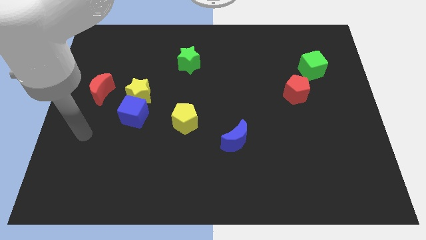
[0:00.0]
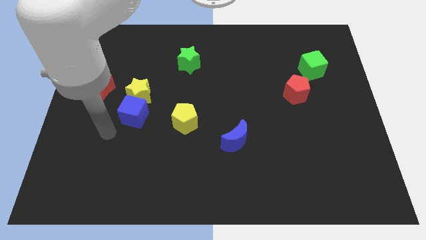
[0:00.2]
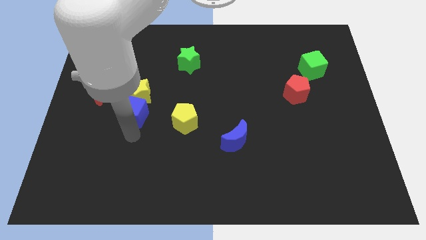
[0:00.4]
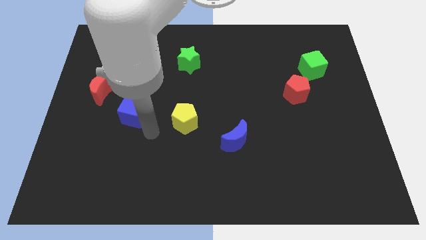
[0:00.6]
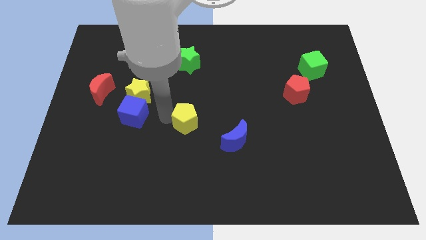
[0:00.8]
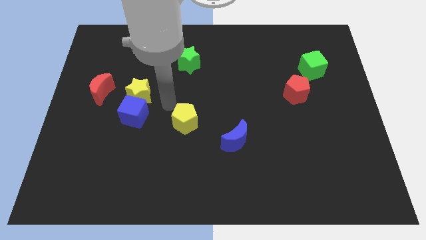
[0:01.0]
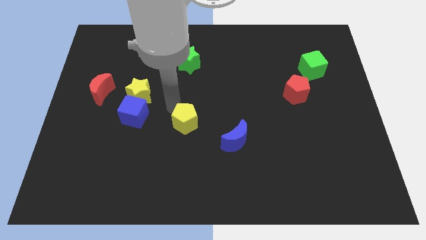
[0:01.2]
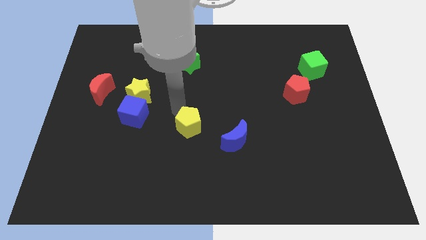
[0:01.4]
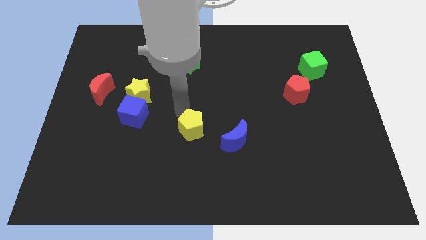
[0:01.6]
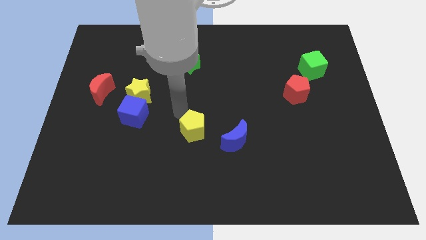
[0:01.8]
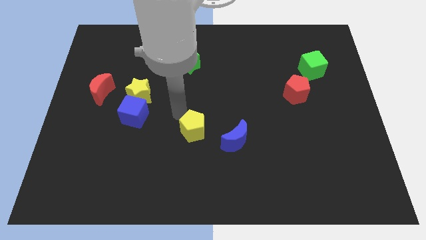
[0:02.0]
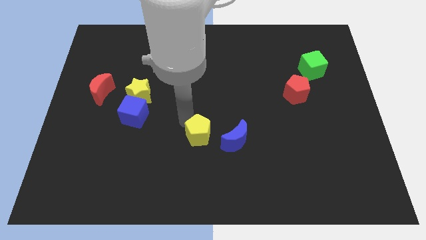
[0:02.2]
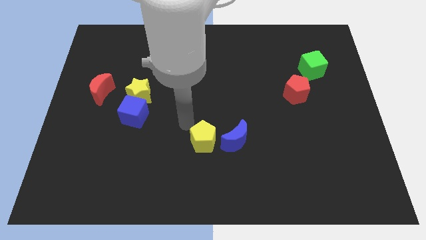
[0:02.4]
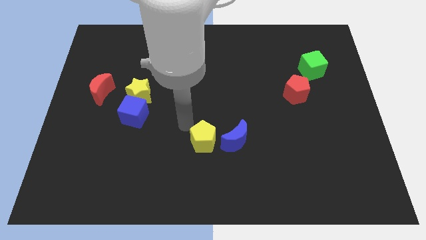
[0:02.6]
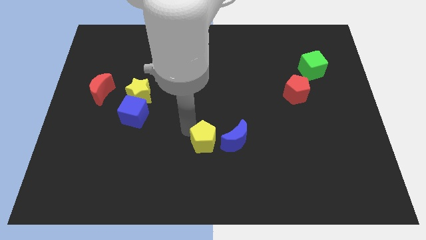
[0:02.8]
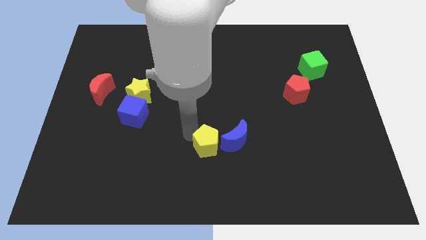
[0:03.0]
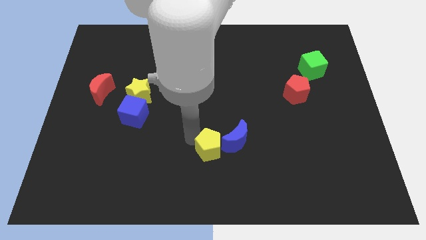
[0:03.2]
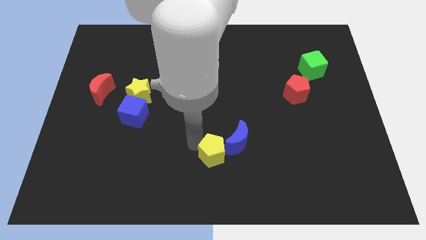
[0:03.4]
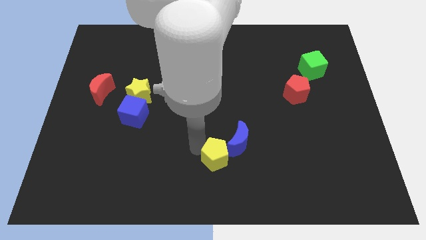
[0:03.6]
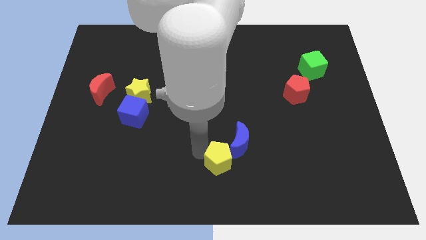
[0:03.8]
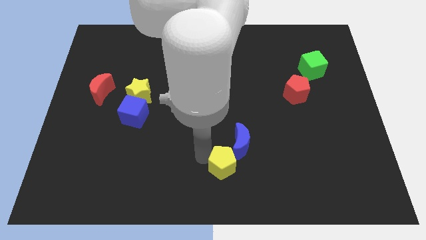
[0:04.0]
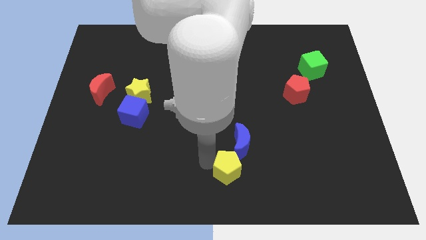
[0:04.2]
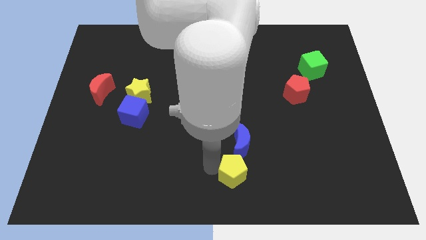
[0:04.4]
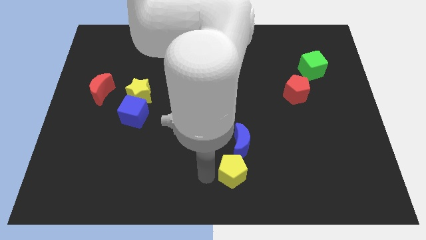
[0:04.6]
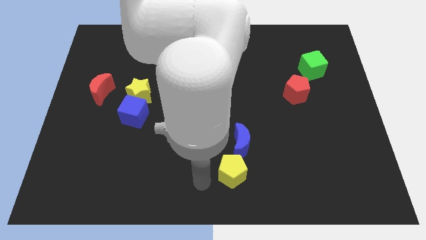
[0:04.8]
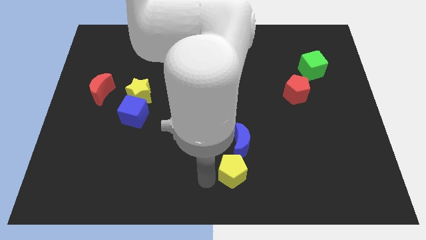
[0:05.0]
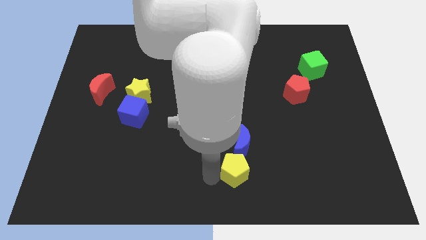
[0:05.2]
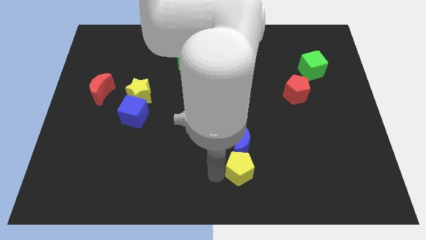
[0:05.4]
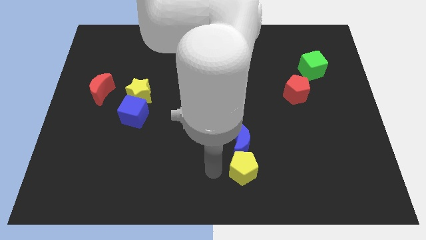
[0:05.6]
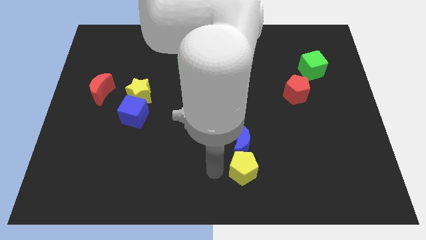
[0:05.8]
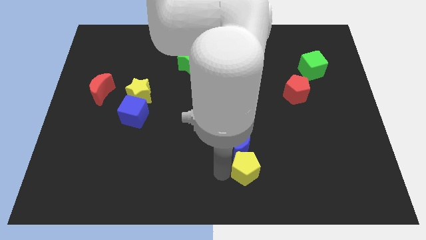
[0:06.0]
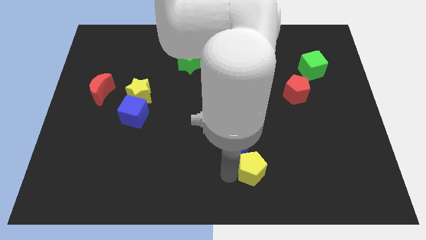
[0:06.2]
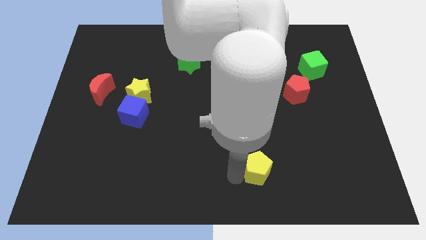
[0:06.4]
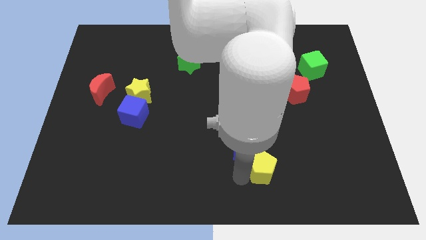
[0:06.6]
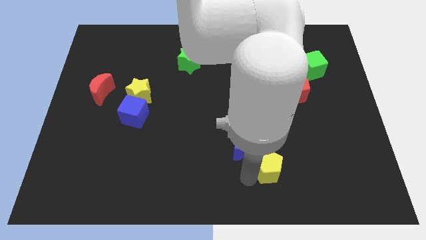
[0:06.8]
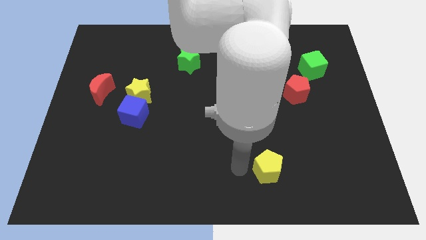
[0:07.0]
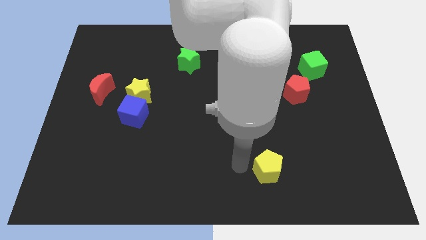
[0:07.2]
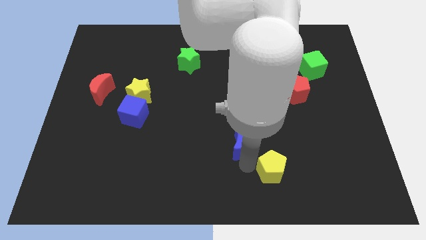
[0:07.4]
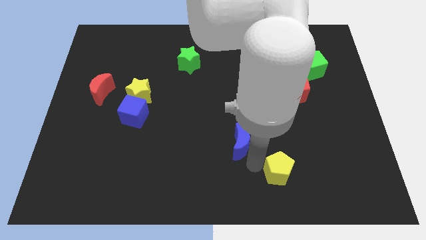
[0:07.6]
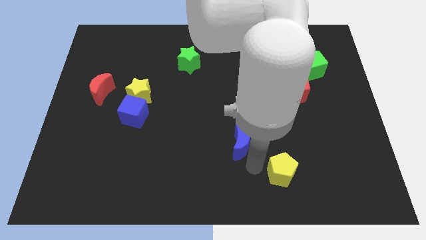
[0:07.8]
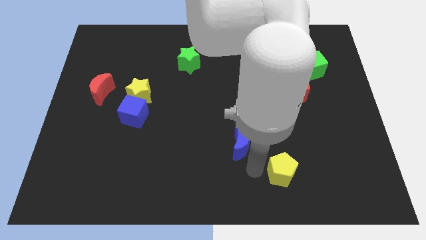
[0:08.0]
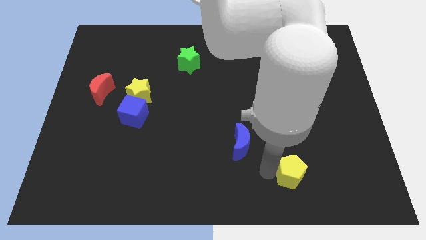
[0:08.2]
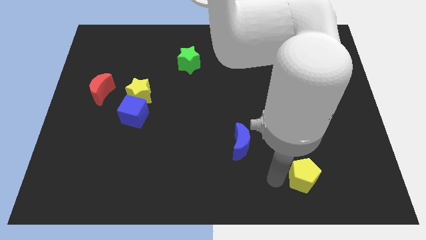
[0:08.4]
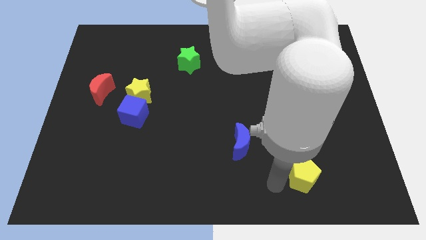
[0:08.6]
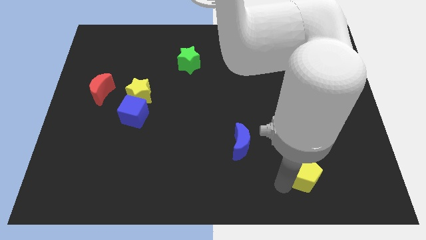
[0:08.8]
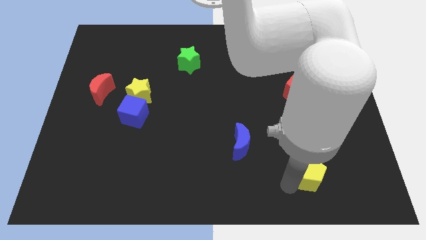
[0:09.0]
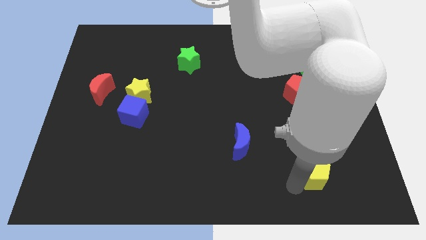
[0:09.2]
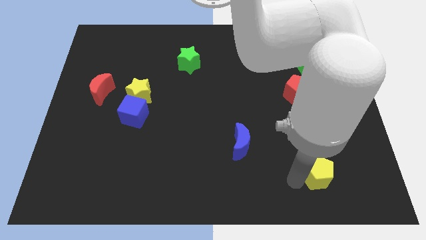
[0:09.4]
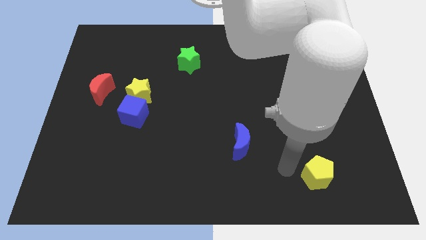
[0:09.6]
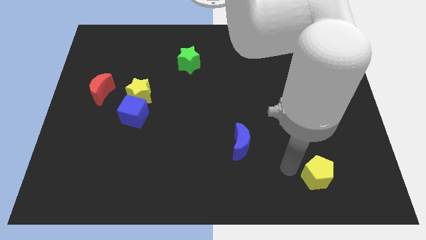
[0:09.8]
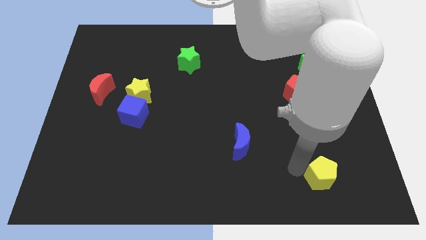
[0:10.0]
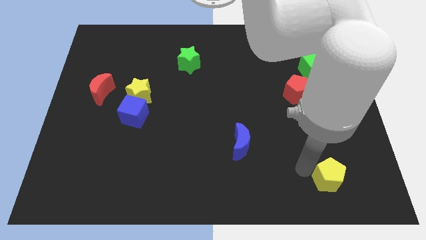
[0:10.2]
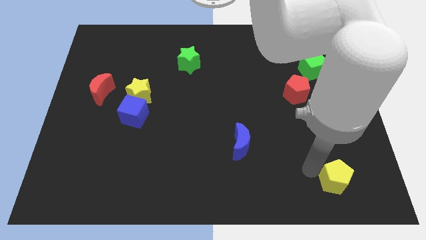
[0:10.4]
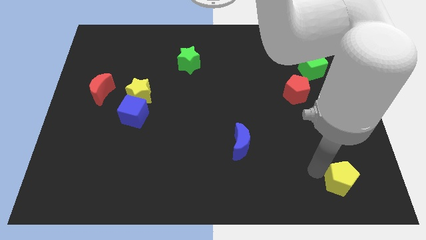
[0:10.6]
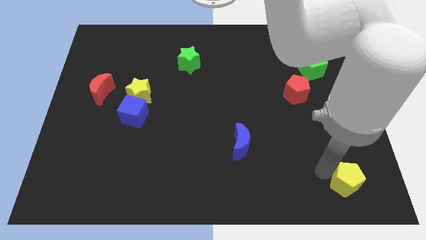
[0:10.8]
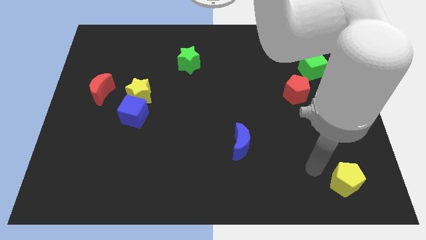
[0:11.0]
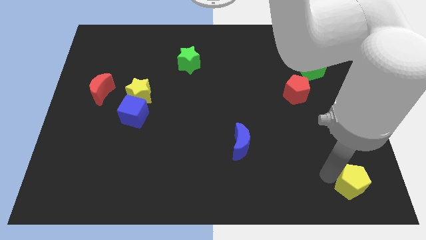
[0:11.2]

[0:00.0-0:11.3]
move the yellow pentagon to the bottom right of the board
